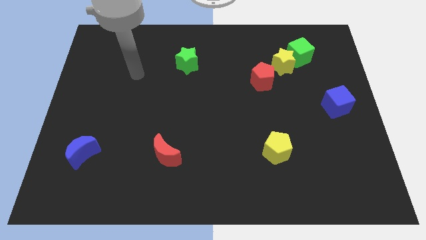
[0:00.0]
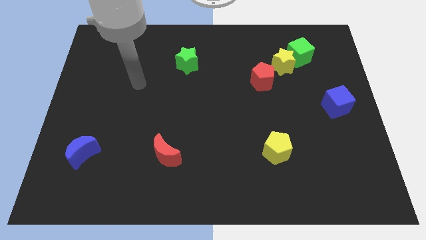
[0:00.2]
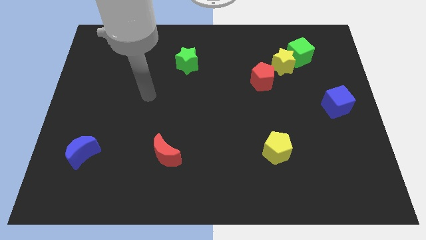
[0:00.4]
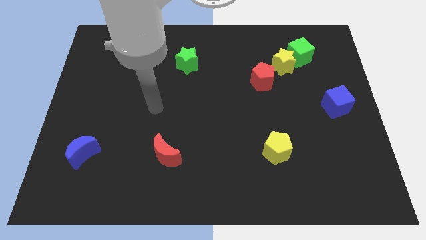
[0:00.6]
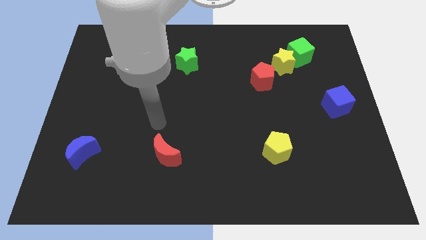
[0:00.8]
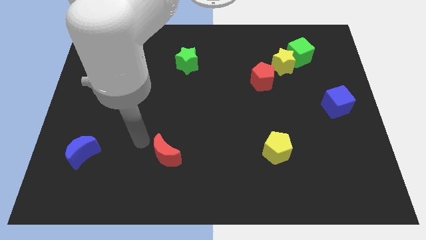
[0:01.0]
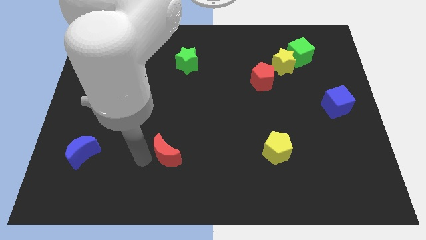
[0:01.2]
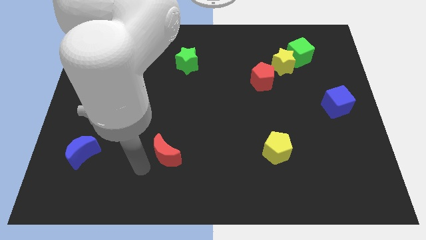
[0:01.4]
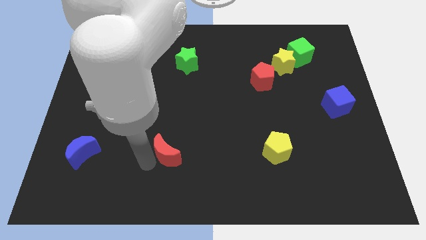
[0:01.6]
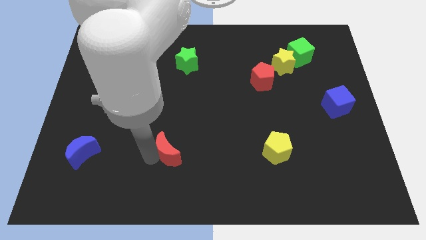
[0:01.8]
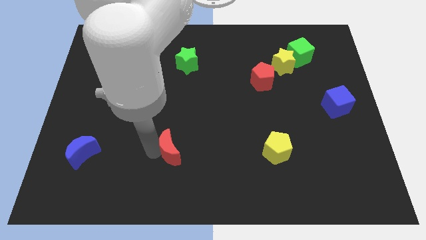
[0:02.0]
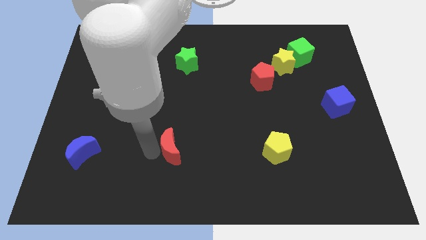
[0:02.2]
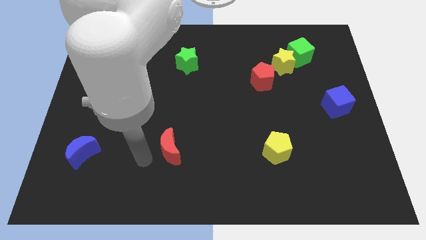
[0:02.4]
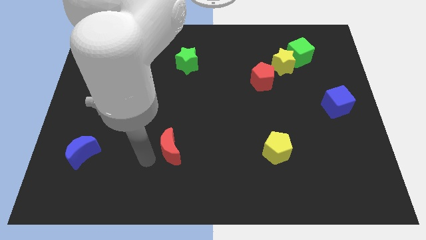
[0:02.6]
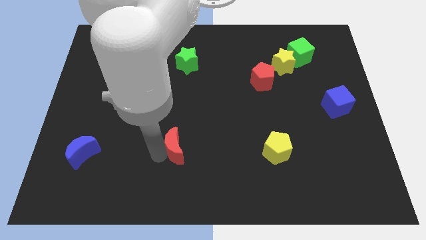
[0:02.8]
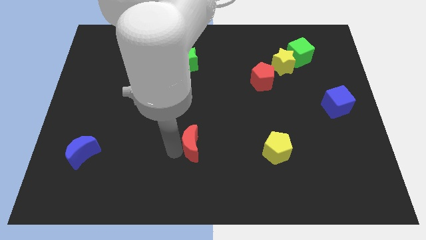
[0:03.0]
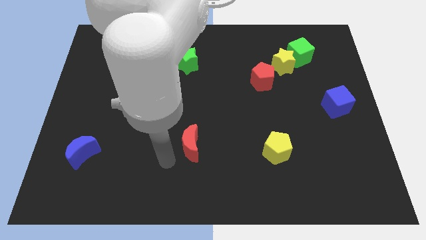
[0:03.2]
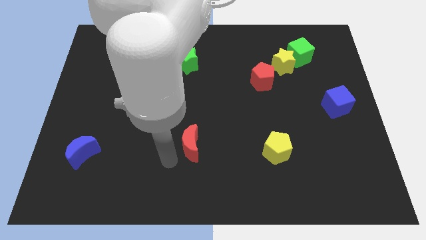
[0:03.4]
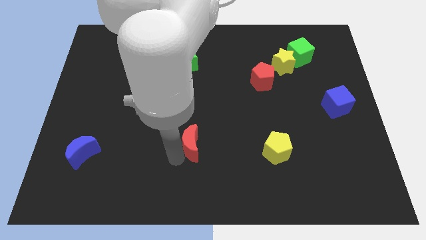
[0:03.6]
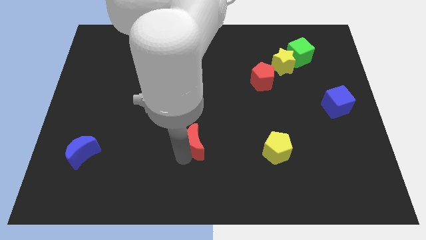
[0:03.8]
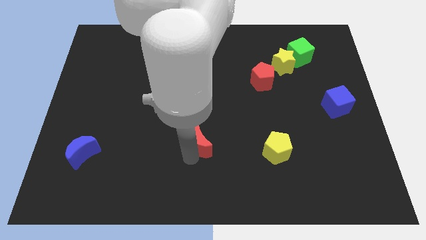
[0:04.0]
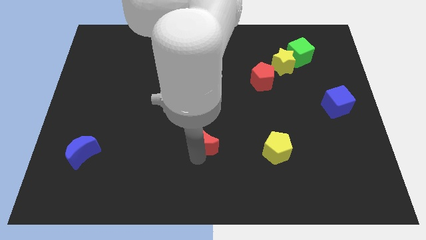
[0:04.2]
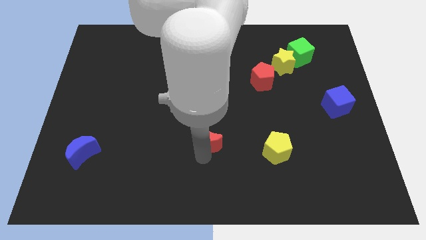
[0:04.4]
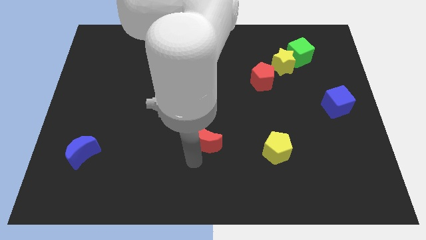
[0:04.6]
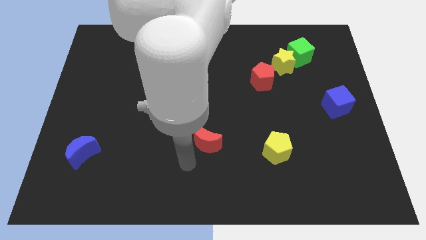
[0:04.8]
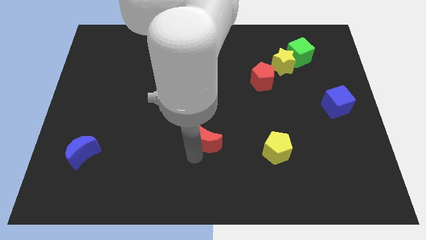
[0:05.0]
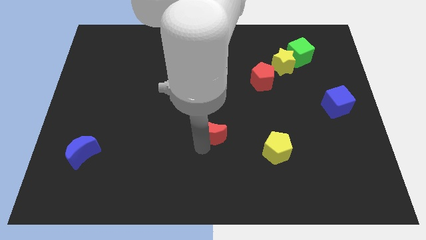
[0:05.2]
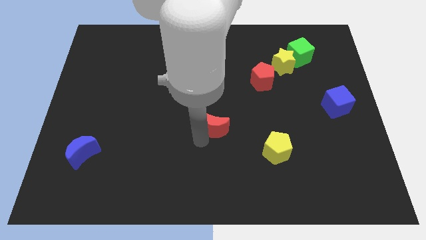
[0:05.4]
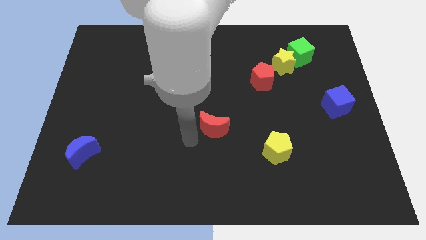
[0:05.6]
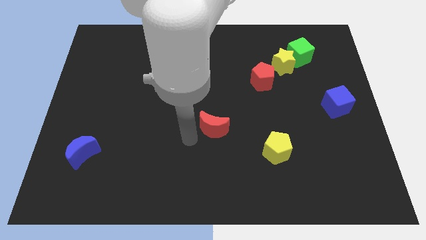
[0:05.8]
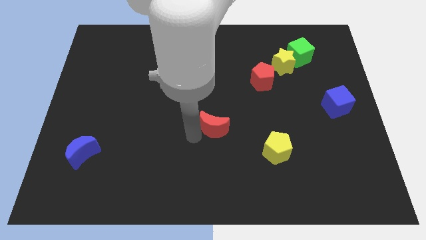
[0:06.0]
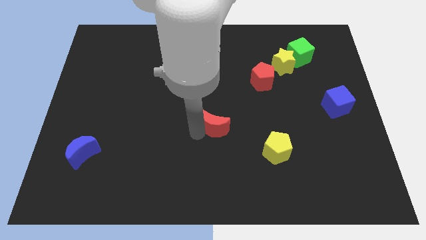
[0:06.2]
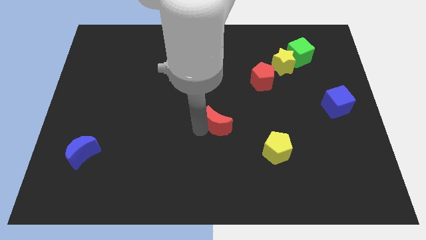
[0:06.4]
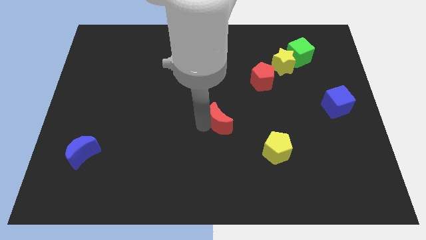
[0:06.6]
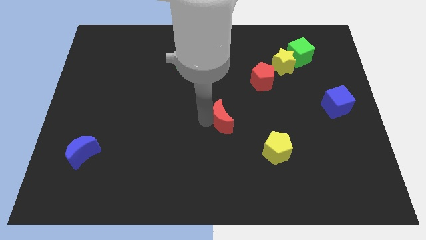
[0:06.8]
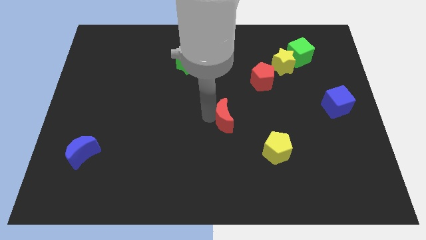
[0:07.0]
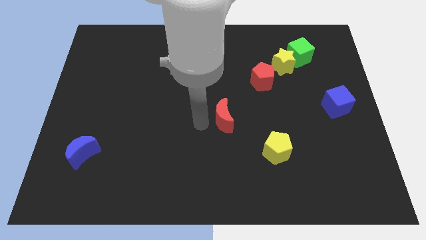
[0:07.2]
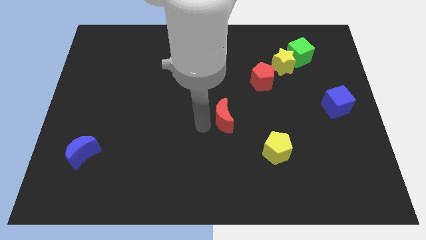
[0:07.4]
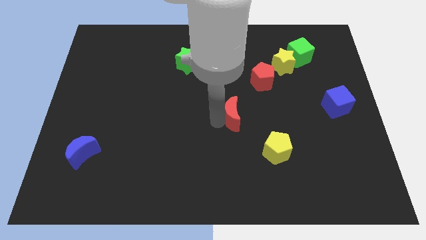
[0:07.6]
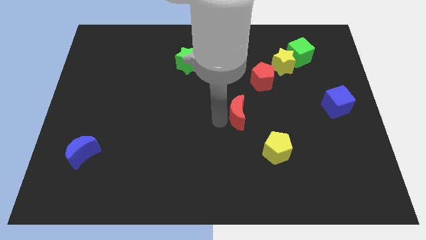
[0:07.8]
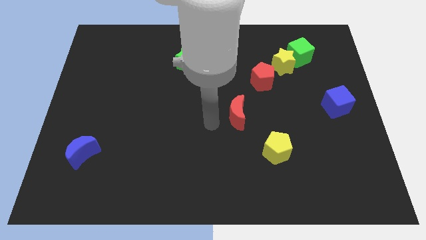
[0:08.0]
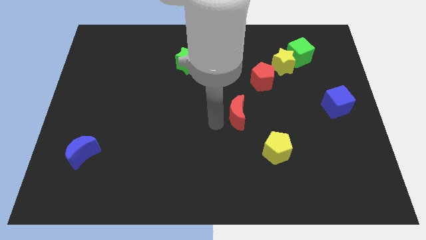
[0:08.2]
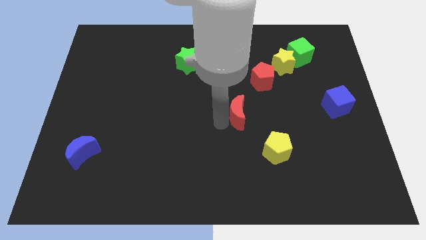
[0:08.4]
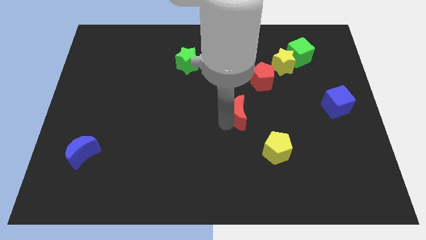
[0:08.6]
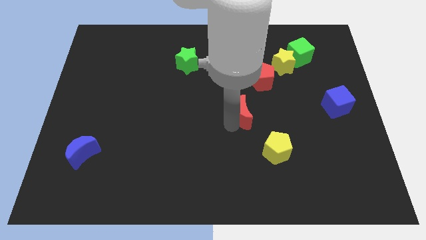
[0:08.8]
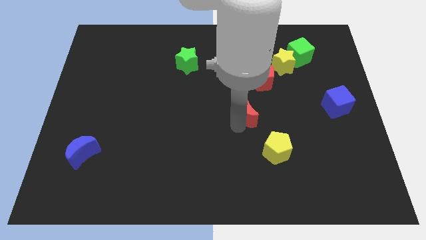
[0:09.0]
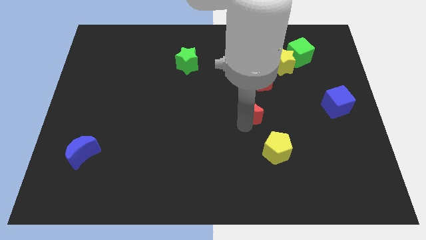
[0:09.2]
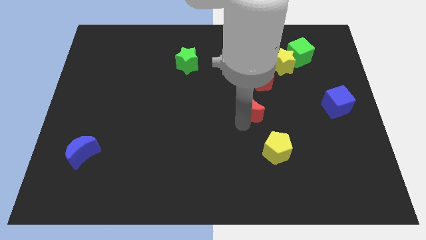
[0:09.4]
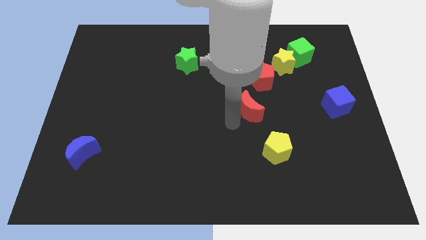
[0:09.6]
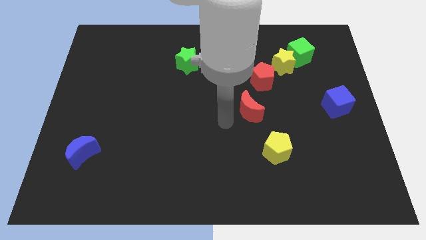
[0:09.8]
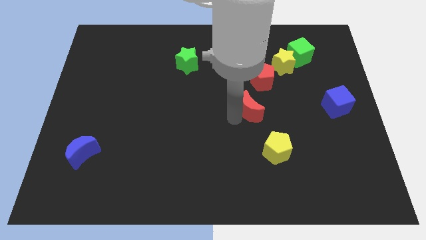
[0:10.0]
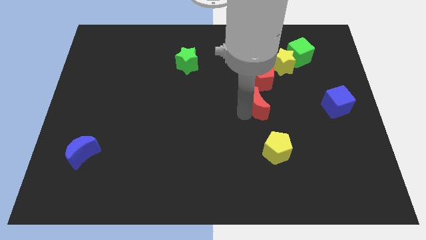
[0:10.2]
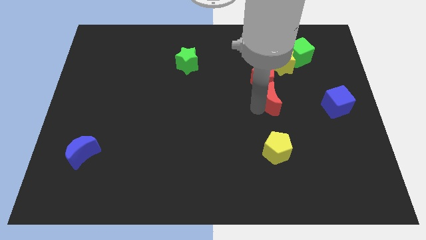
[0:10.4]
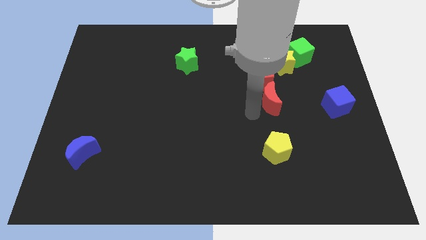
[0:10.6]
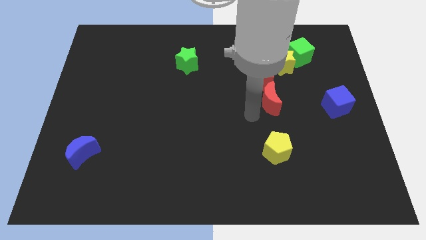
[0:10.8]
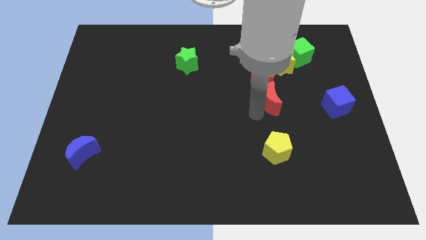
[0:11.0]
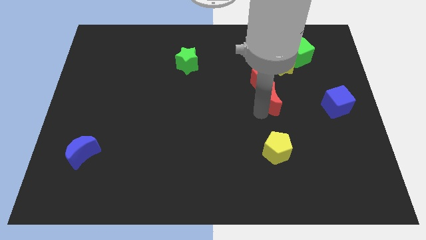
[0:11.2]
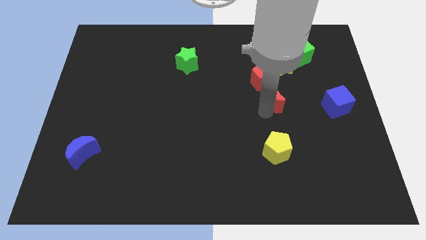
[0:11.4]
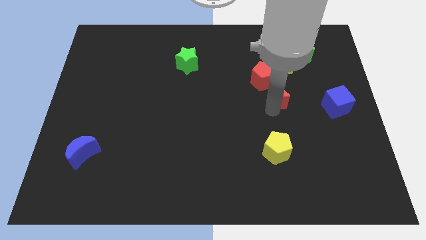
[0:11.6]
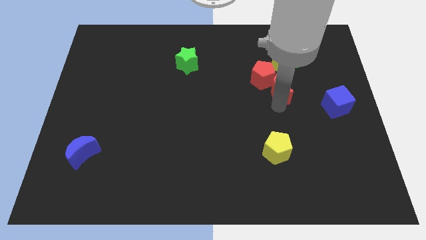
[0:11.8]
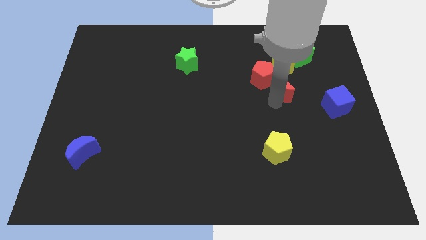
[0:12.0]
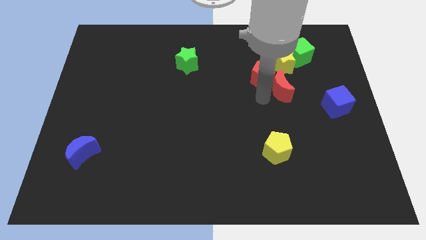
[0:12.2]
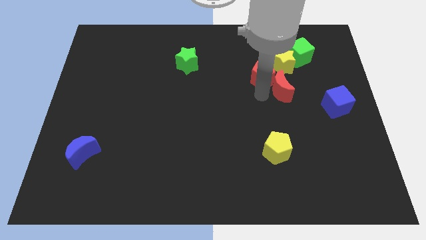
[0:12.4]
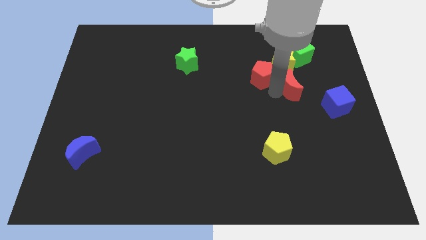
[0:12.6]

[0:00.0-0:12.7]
put the red moon below the green cube
